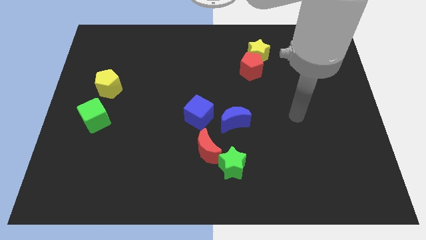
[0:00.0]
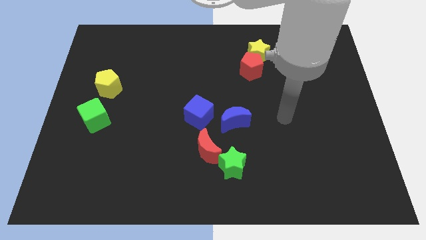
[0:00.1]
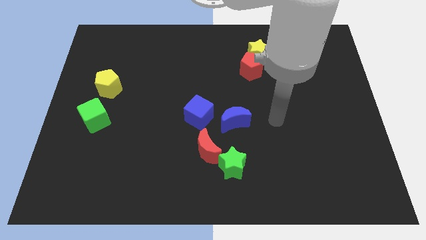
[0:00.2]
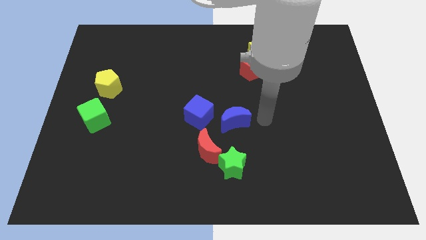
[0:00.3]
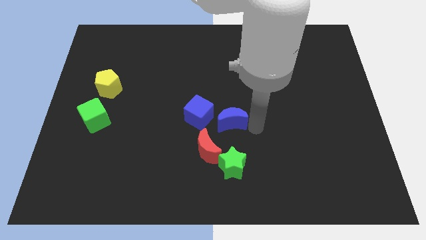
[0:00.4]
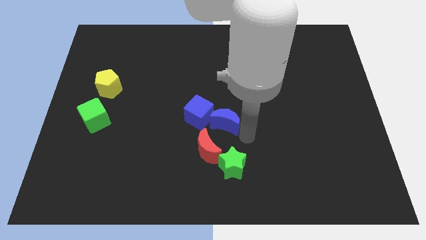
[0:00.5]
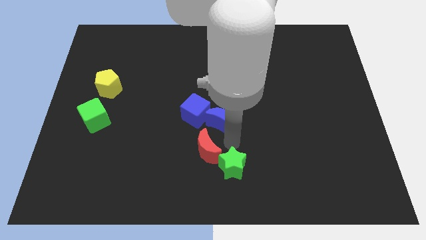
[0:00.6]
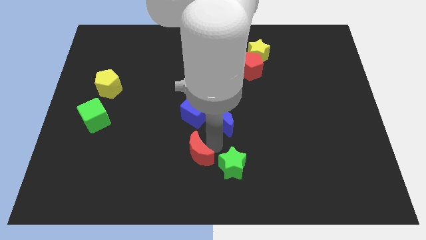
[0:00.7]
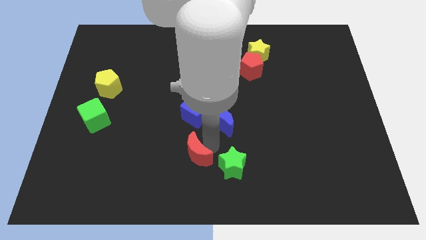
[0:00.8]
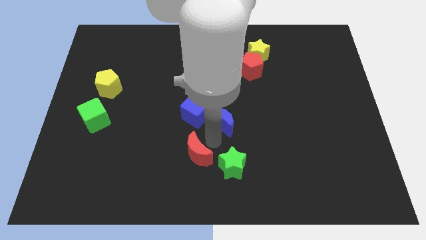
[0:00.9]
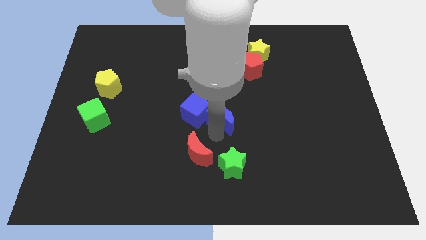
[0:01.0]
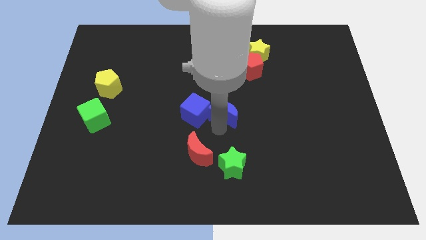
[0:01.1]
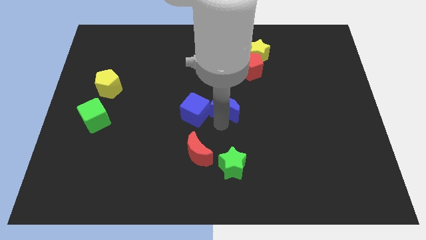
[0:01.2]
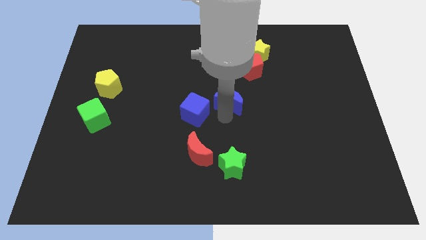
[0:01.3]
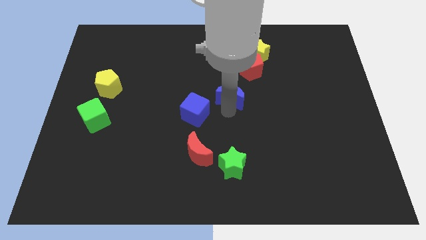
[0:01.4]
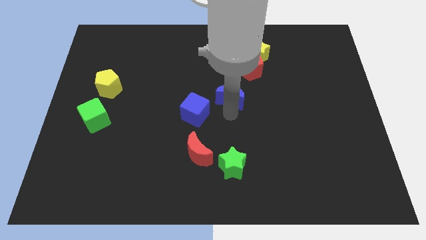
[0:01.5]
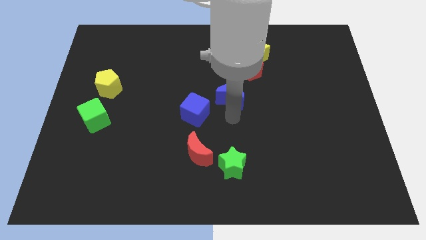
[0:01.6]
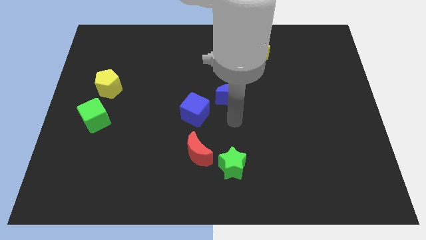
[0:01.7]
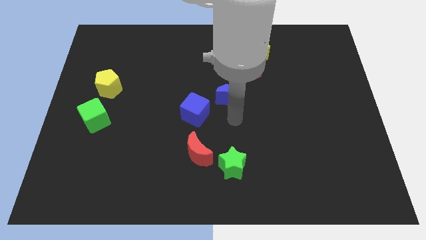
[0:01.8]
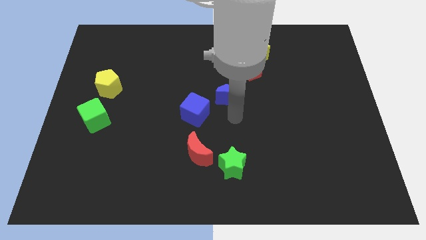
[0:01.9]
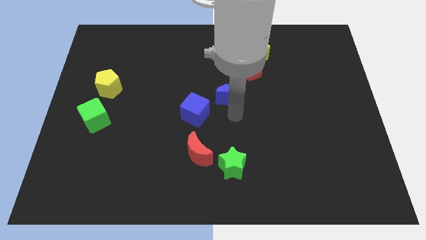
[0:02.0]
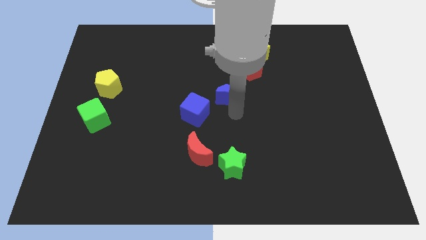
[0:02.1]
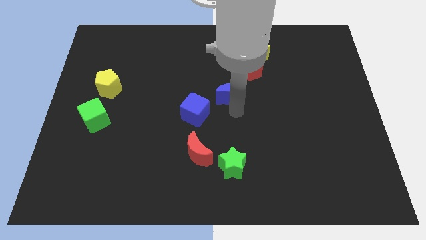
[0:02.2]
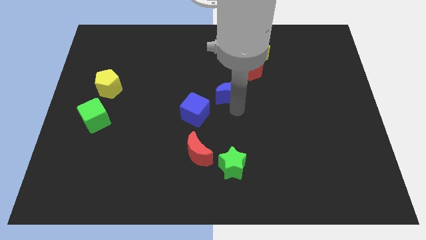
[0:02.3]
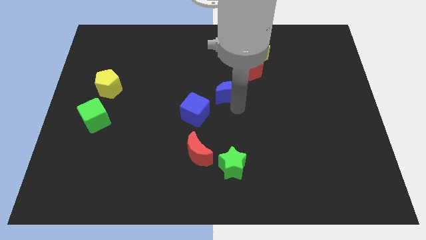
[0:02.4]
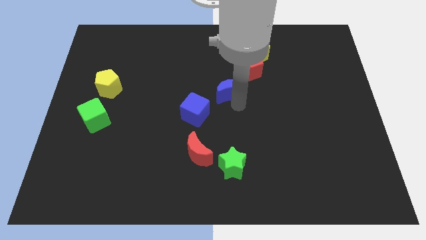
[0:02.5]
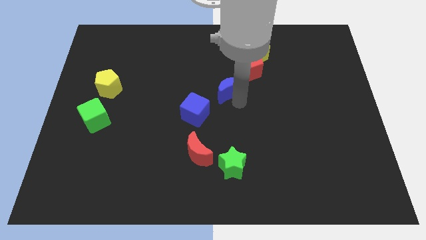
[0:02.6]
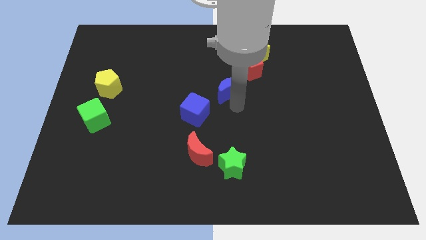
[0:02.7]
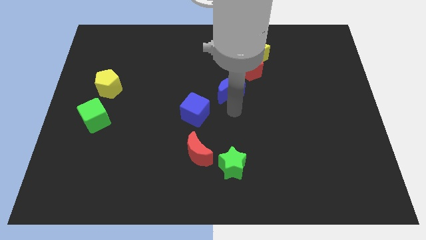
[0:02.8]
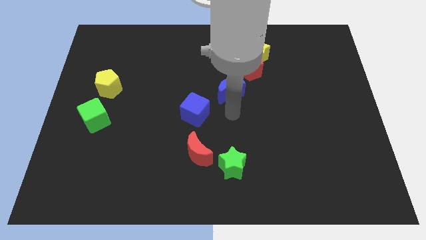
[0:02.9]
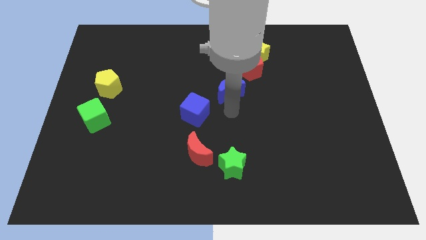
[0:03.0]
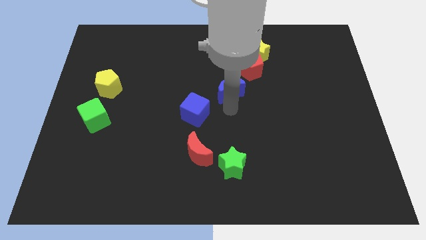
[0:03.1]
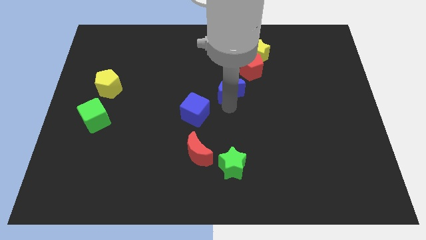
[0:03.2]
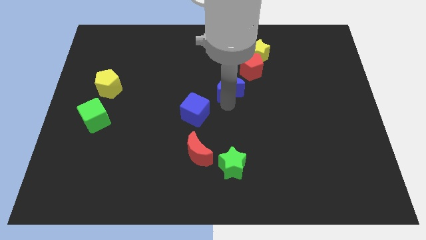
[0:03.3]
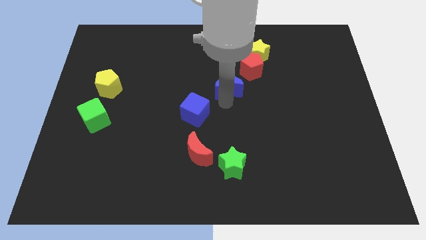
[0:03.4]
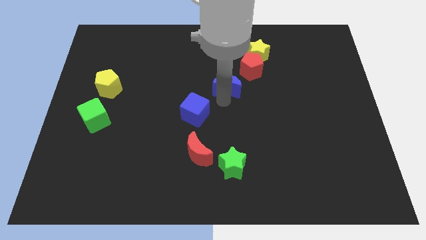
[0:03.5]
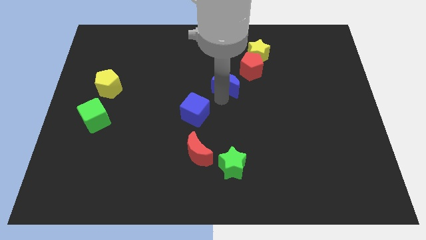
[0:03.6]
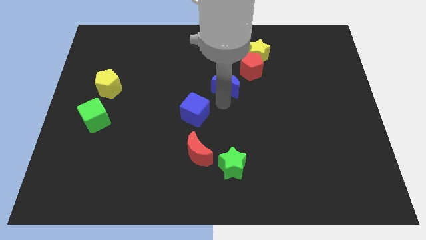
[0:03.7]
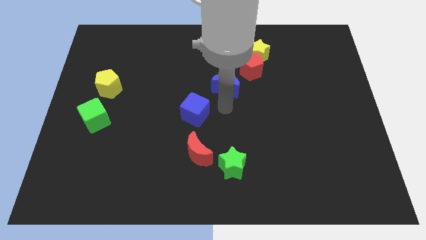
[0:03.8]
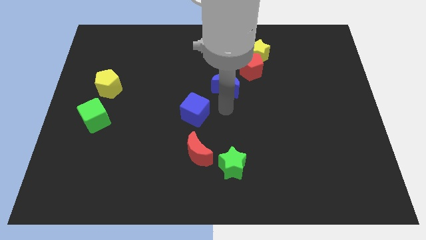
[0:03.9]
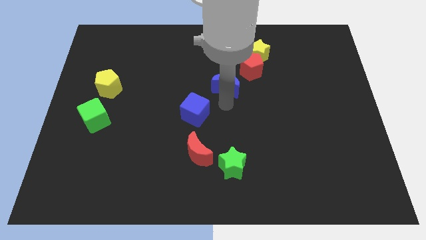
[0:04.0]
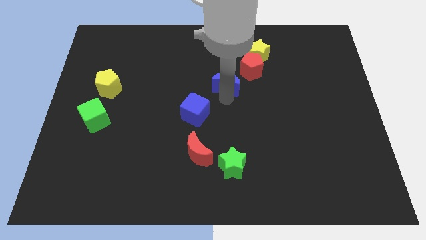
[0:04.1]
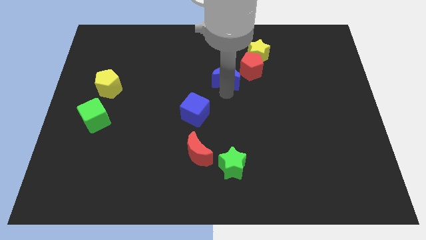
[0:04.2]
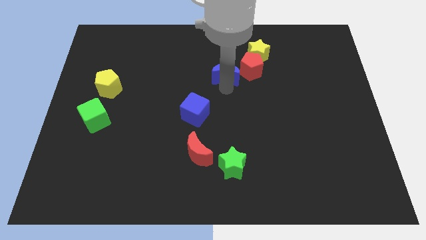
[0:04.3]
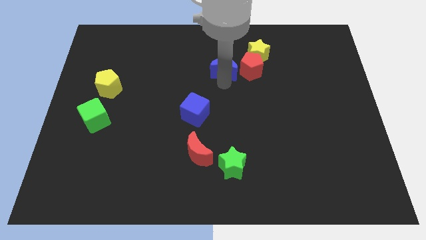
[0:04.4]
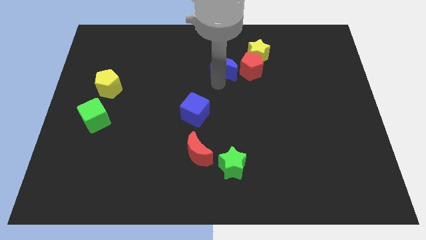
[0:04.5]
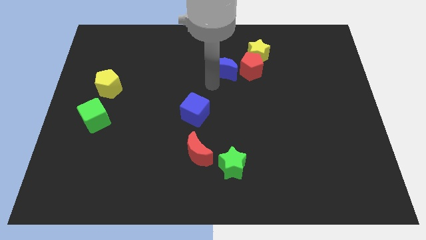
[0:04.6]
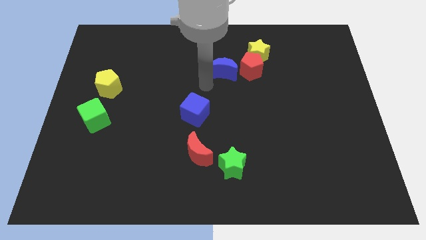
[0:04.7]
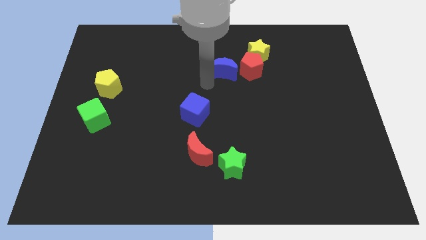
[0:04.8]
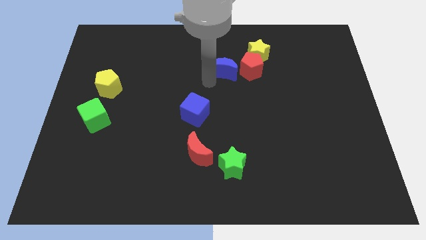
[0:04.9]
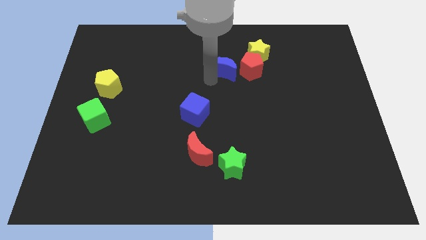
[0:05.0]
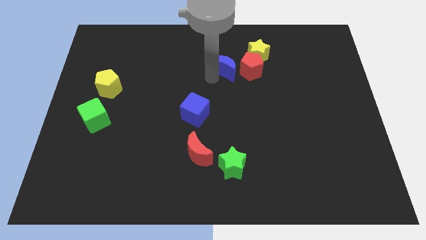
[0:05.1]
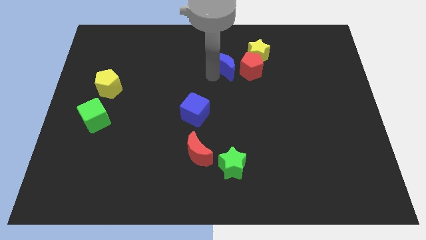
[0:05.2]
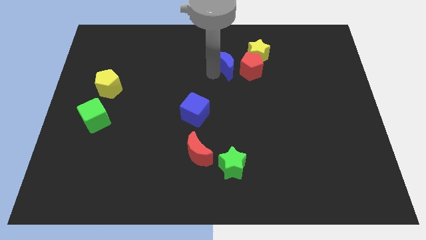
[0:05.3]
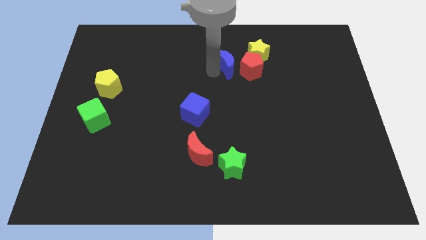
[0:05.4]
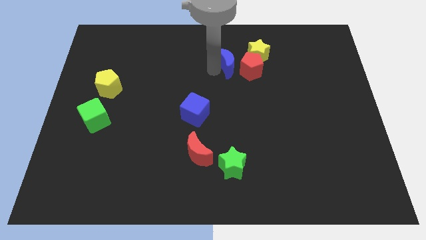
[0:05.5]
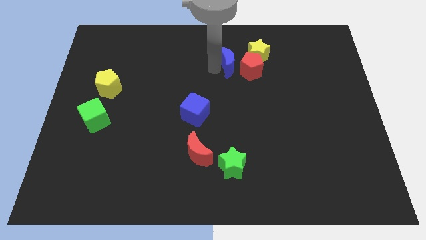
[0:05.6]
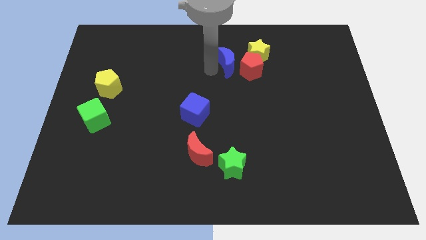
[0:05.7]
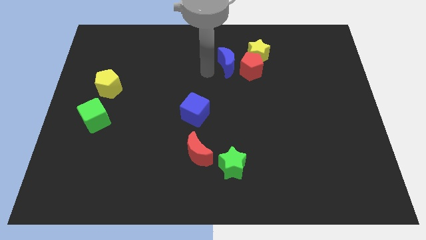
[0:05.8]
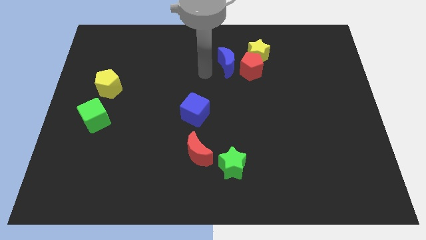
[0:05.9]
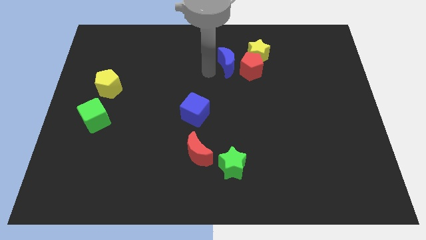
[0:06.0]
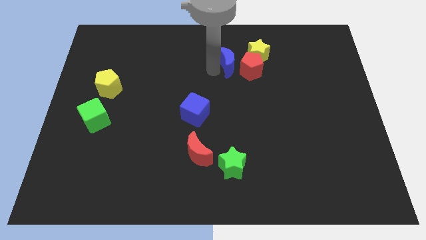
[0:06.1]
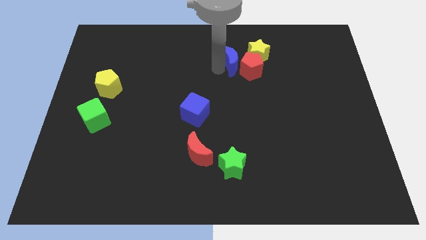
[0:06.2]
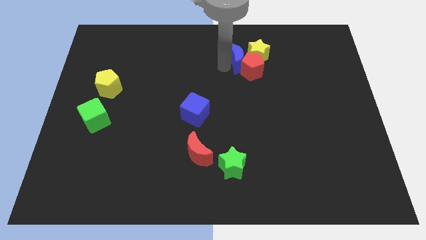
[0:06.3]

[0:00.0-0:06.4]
move the blue moon close to the yellow star

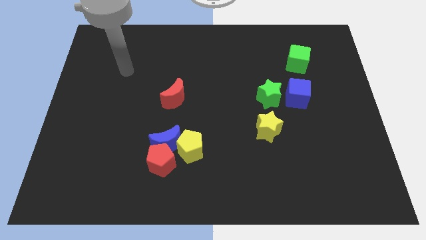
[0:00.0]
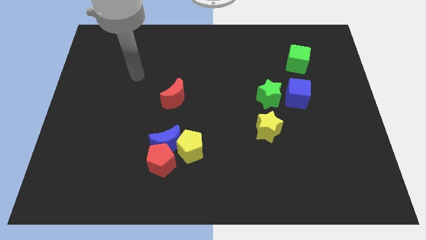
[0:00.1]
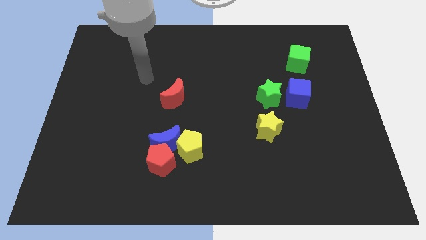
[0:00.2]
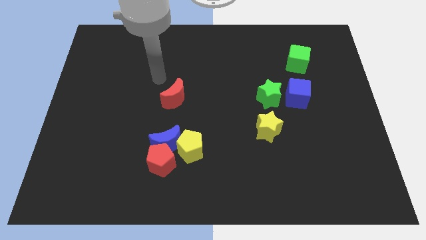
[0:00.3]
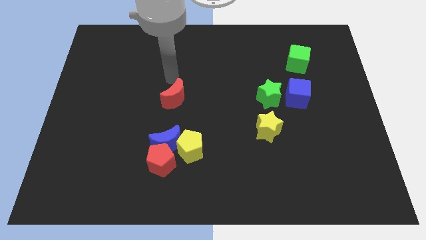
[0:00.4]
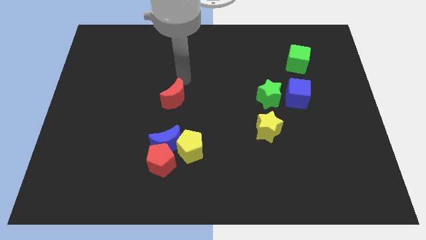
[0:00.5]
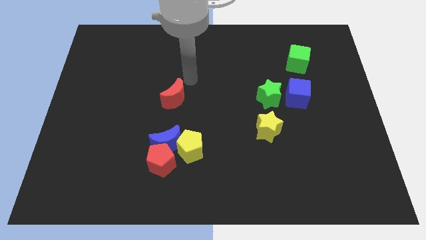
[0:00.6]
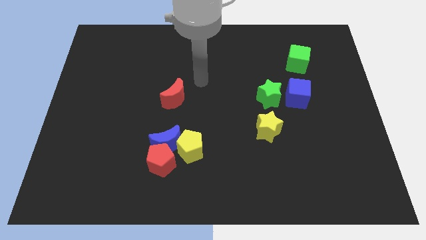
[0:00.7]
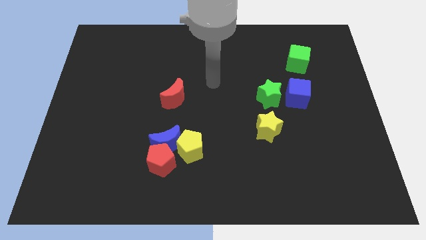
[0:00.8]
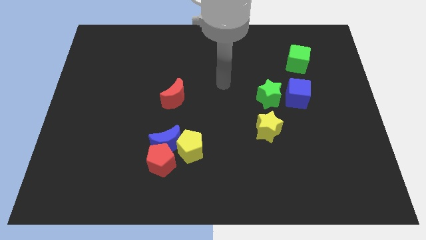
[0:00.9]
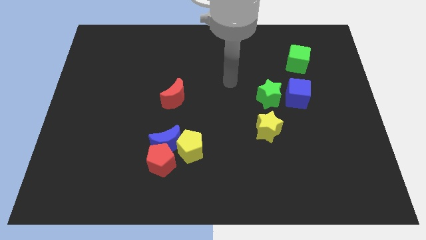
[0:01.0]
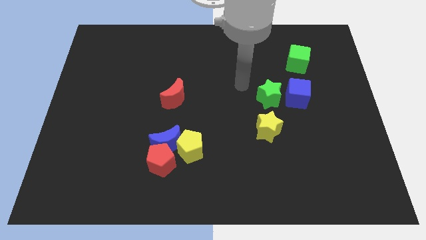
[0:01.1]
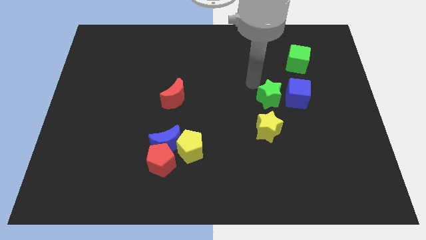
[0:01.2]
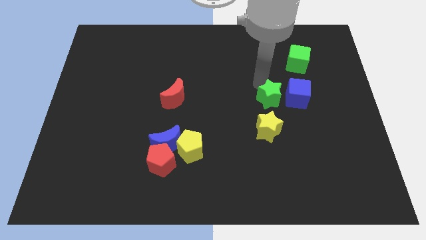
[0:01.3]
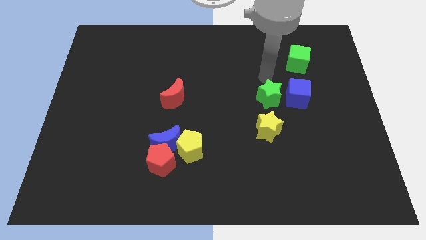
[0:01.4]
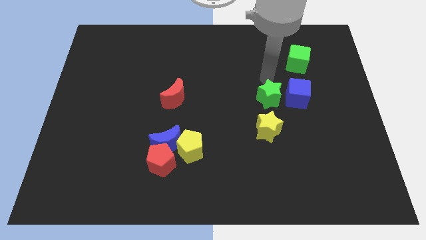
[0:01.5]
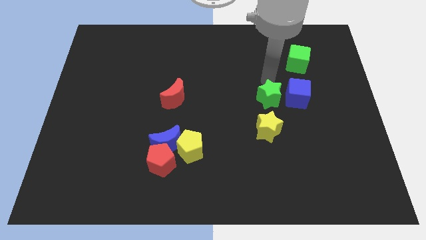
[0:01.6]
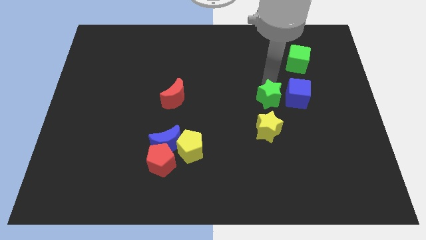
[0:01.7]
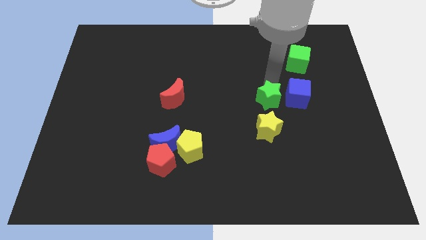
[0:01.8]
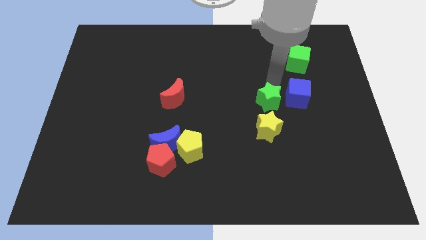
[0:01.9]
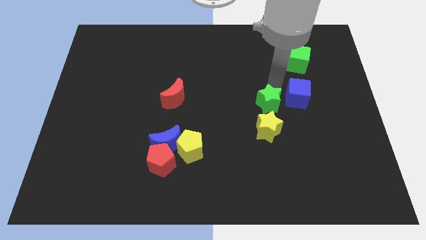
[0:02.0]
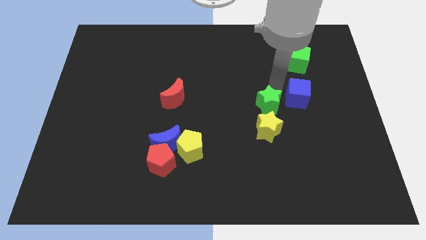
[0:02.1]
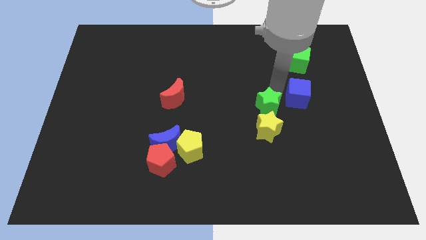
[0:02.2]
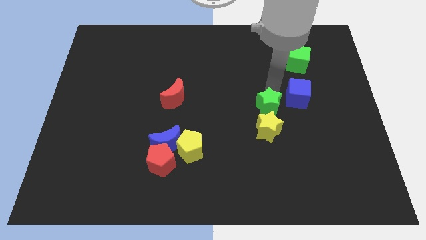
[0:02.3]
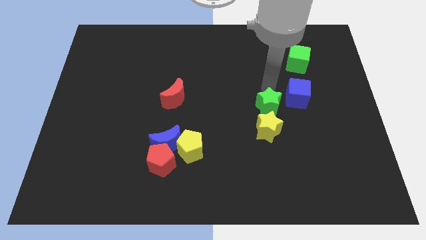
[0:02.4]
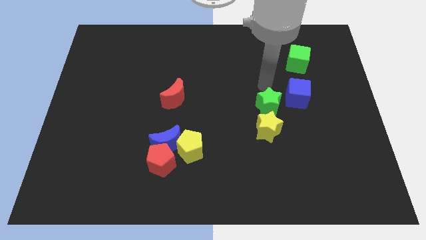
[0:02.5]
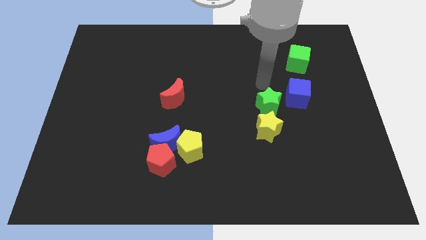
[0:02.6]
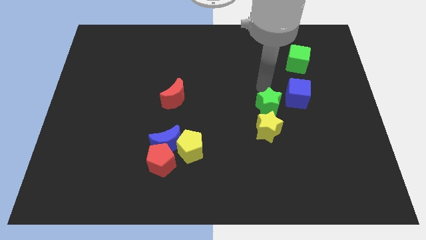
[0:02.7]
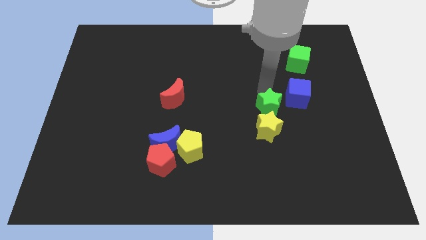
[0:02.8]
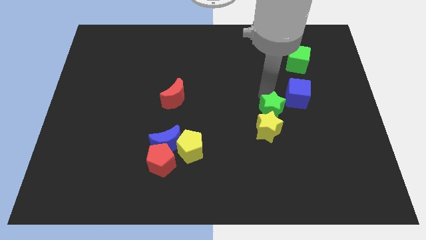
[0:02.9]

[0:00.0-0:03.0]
put the green star next to the yellow star
